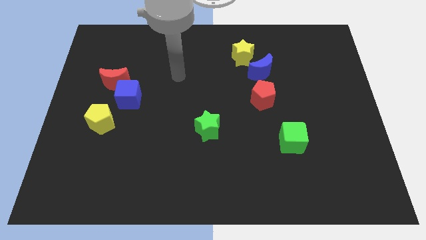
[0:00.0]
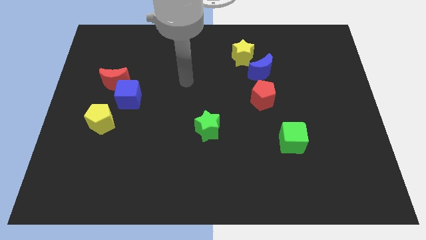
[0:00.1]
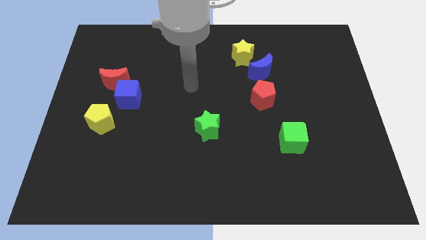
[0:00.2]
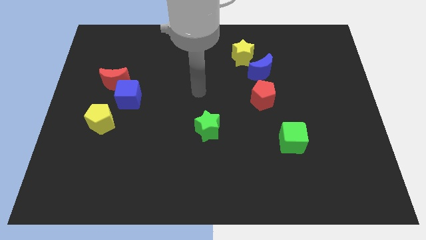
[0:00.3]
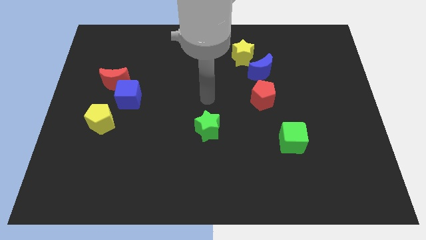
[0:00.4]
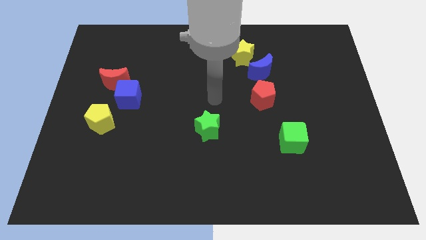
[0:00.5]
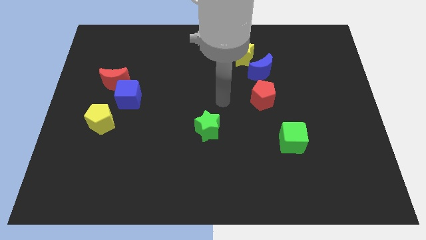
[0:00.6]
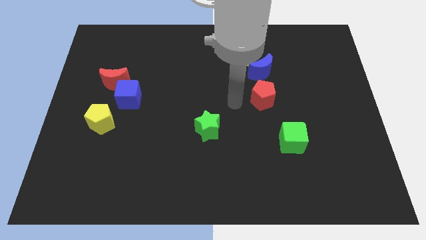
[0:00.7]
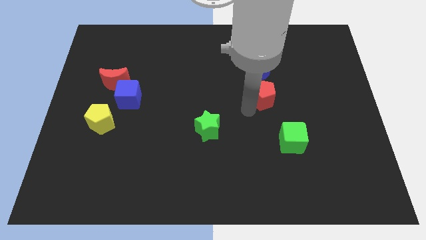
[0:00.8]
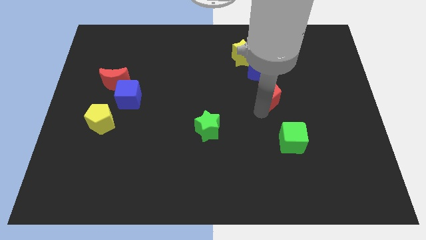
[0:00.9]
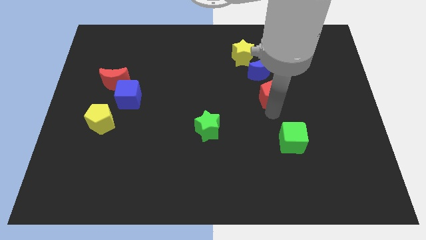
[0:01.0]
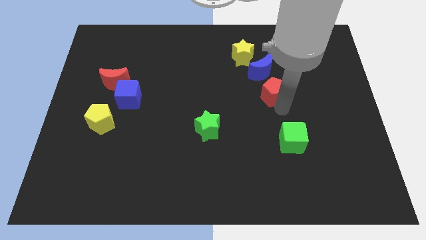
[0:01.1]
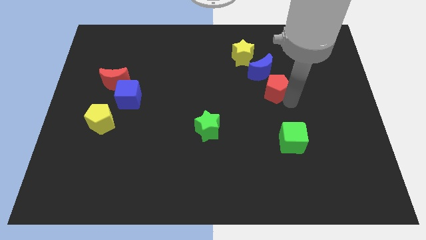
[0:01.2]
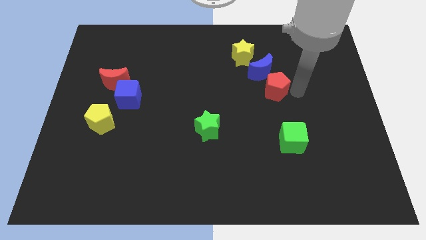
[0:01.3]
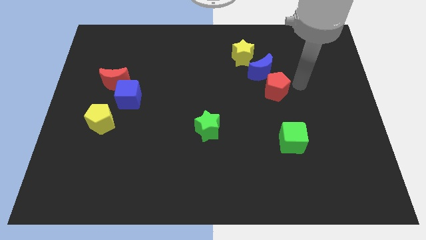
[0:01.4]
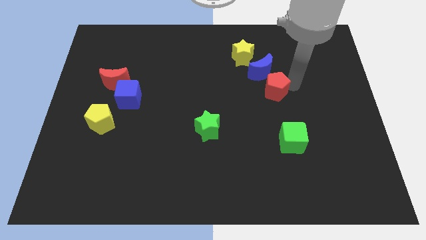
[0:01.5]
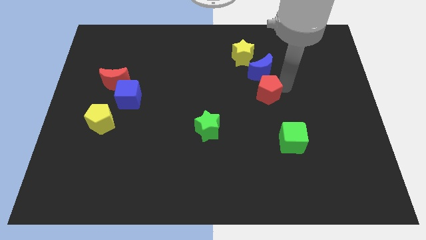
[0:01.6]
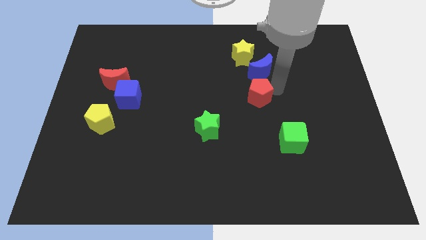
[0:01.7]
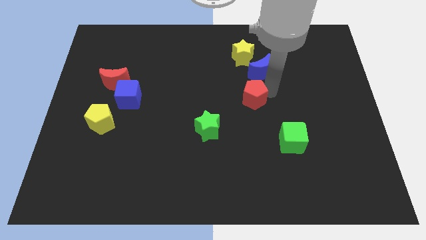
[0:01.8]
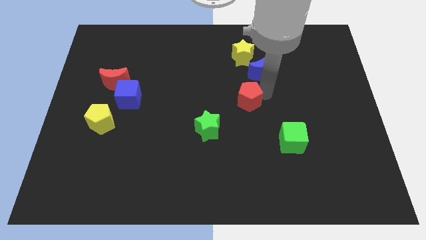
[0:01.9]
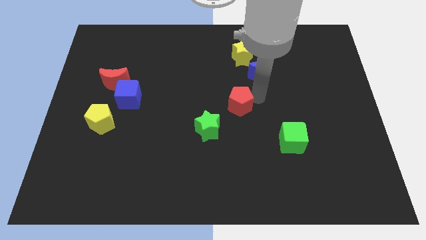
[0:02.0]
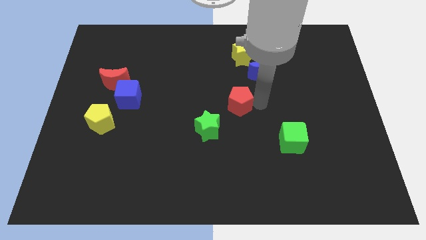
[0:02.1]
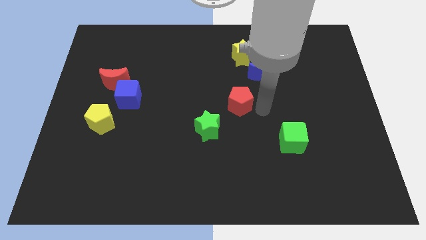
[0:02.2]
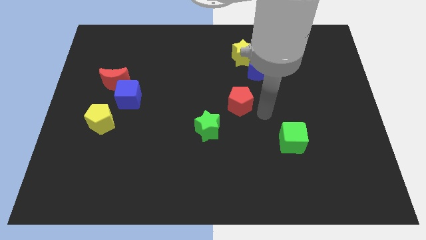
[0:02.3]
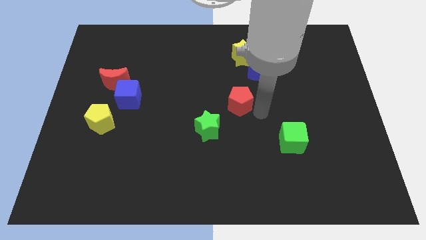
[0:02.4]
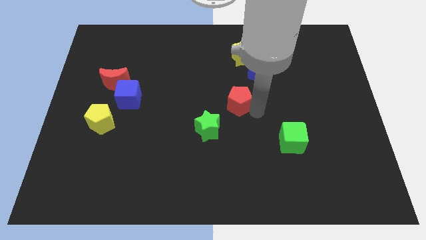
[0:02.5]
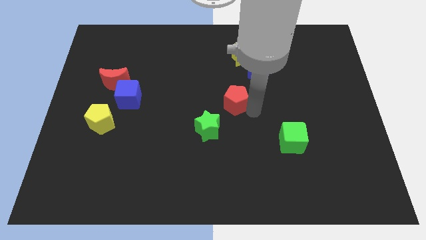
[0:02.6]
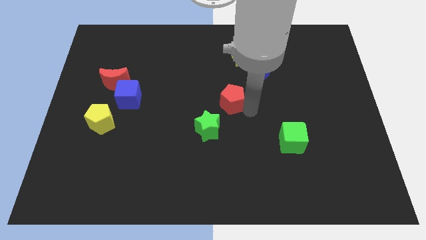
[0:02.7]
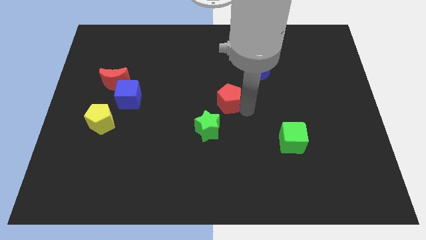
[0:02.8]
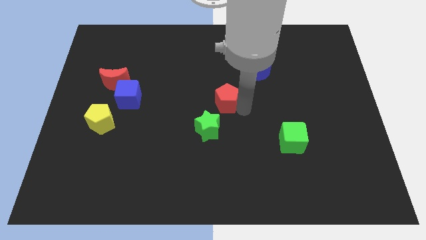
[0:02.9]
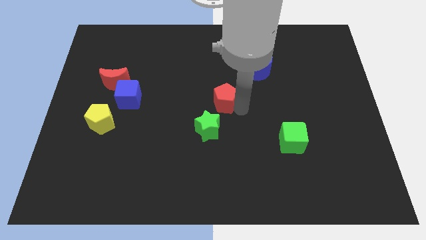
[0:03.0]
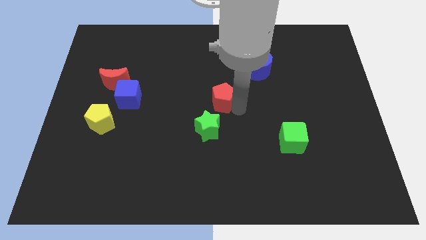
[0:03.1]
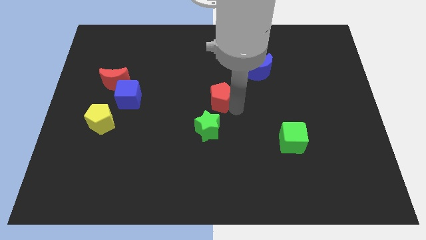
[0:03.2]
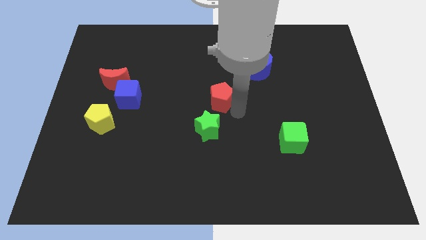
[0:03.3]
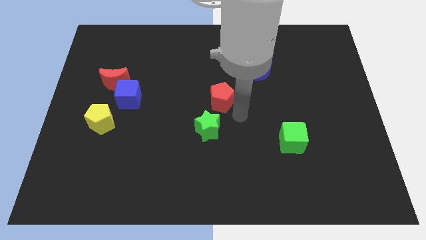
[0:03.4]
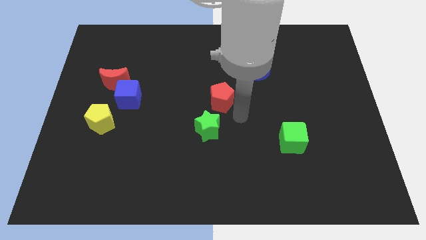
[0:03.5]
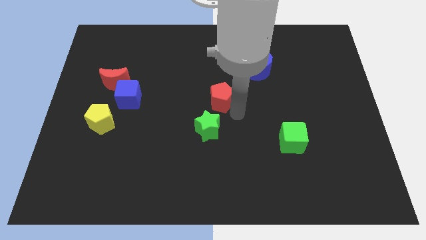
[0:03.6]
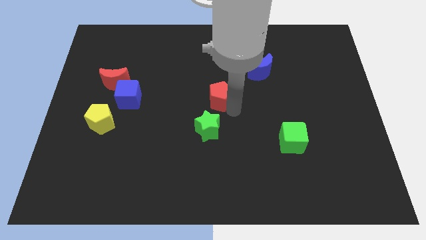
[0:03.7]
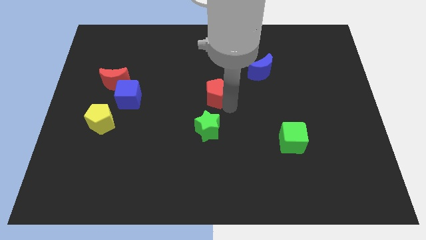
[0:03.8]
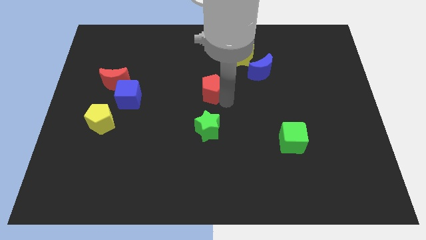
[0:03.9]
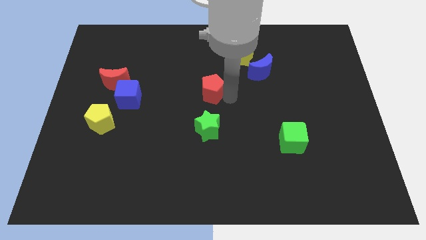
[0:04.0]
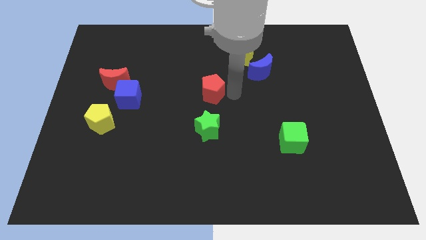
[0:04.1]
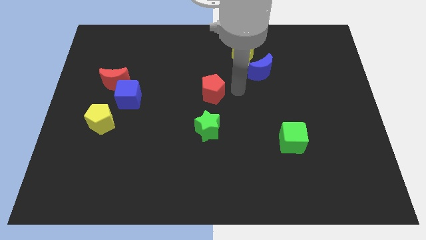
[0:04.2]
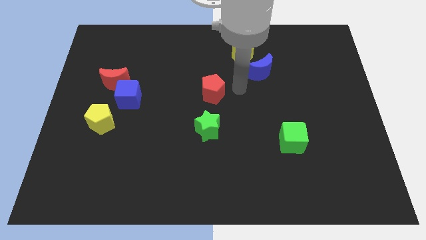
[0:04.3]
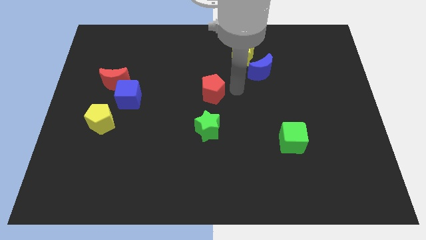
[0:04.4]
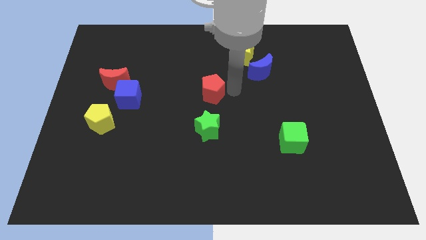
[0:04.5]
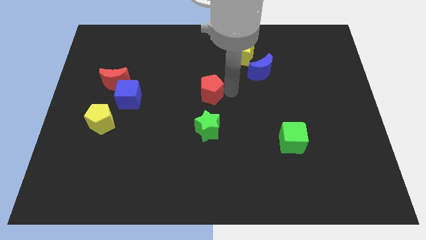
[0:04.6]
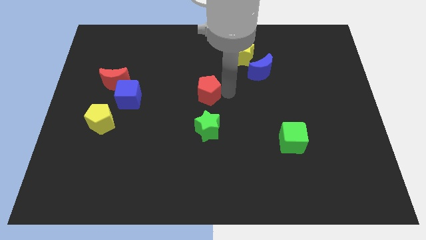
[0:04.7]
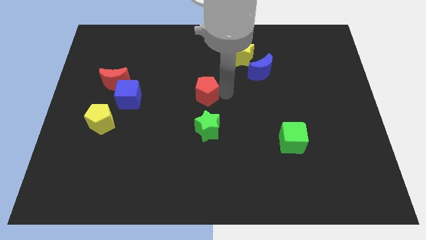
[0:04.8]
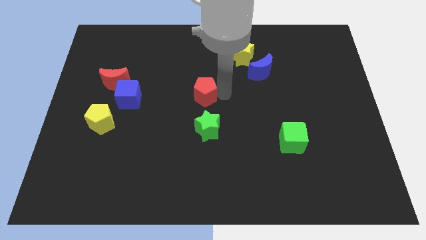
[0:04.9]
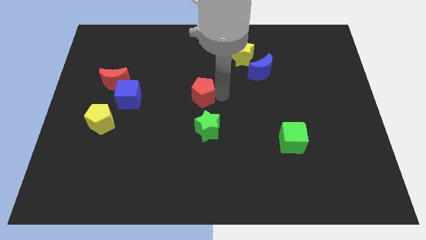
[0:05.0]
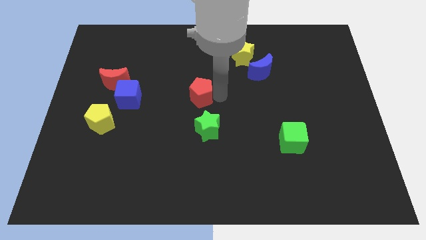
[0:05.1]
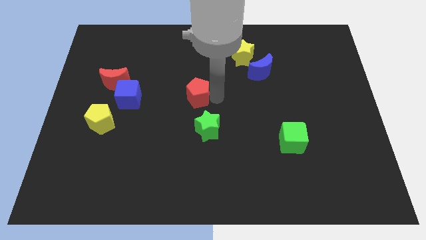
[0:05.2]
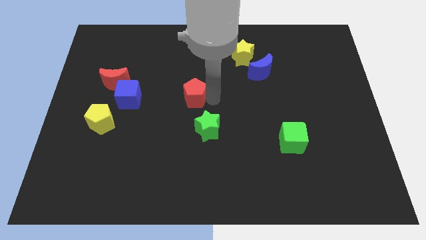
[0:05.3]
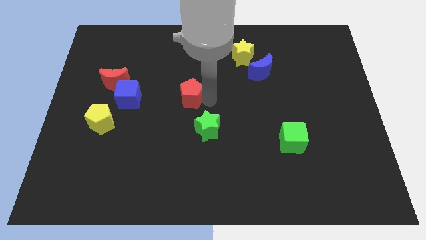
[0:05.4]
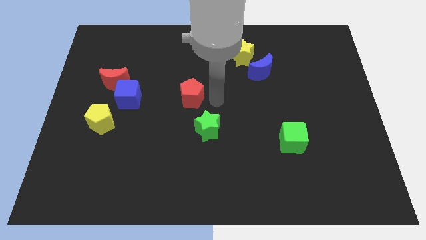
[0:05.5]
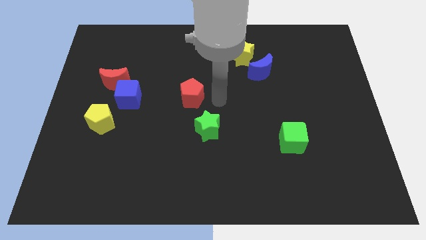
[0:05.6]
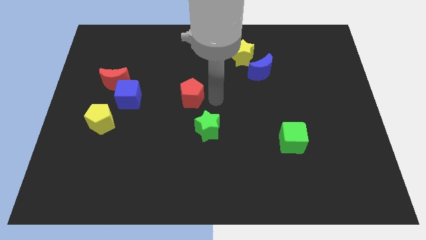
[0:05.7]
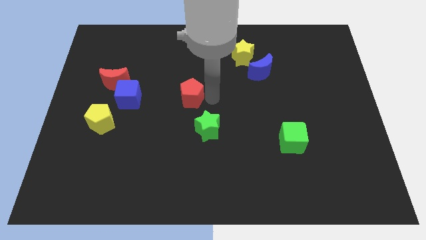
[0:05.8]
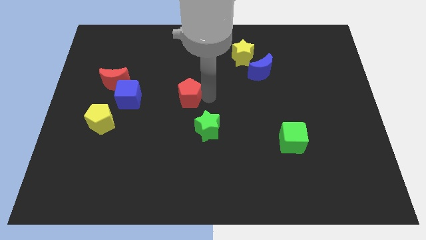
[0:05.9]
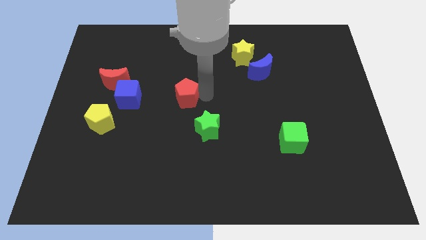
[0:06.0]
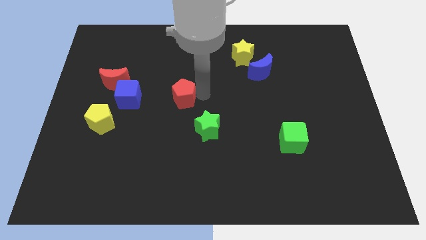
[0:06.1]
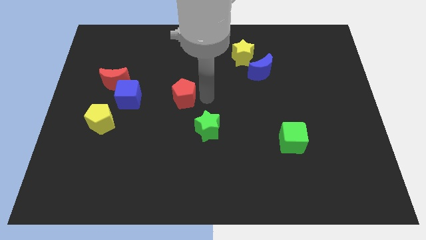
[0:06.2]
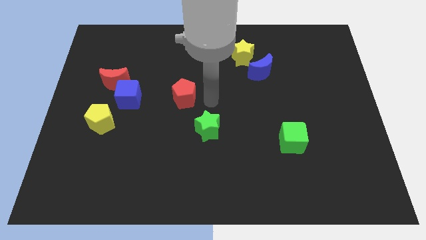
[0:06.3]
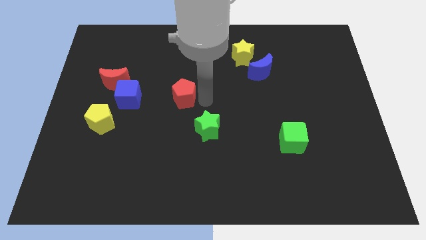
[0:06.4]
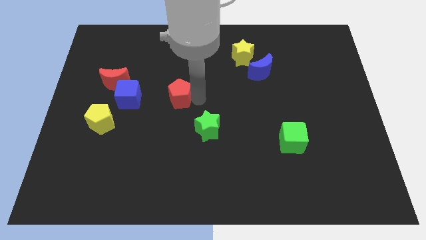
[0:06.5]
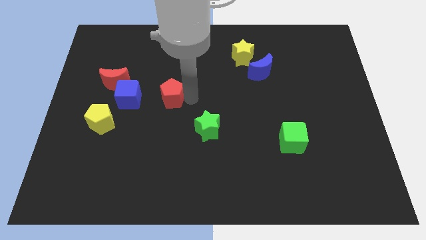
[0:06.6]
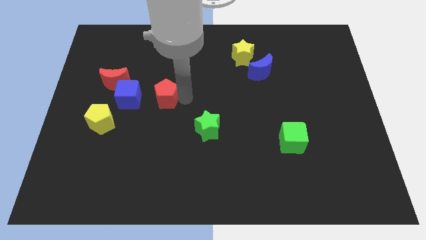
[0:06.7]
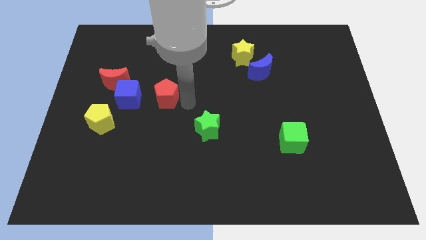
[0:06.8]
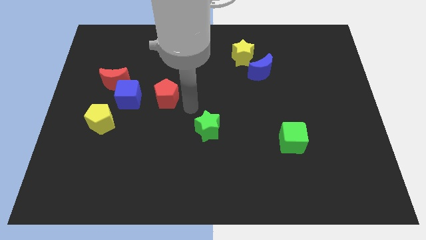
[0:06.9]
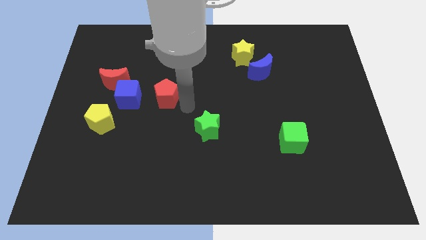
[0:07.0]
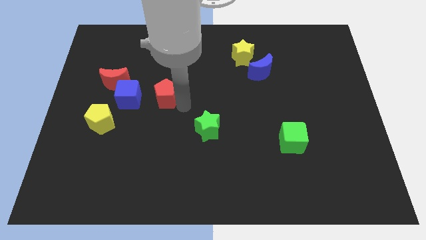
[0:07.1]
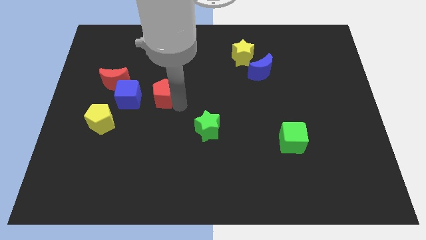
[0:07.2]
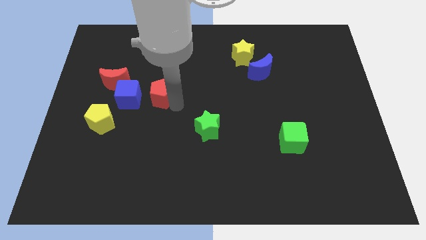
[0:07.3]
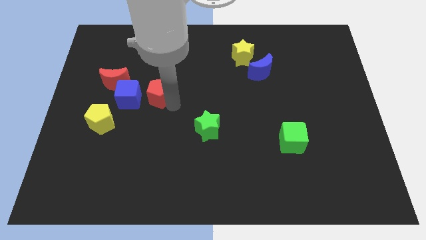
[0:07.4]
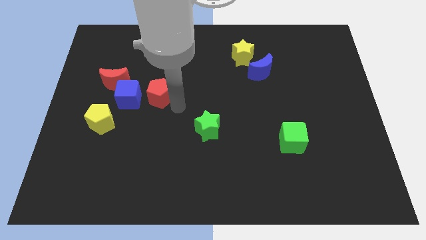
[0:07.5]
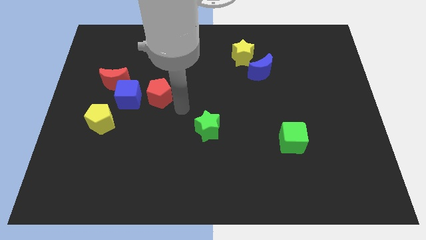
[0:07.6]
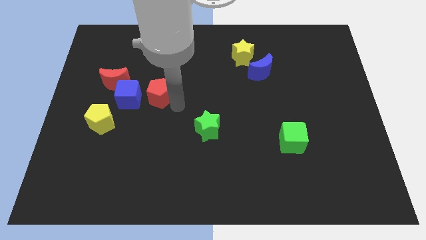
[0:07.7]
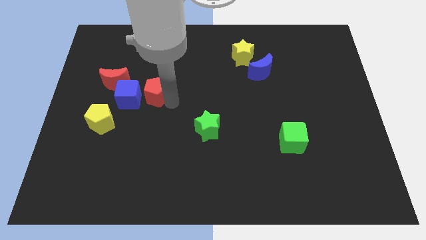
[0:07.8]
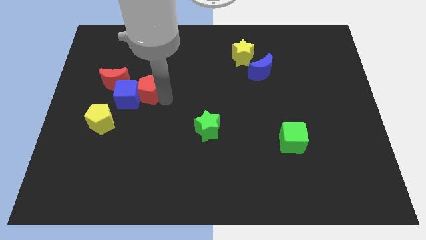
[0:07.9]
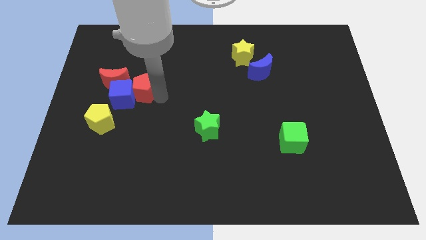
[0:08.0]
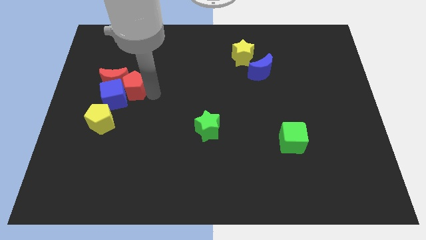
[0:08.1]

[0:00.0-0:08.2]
put the red pentagon towards the red moon
